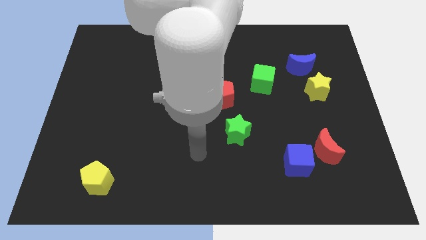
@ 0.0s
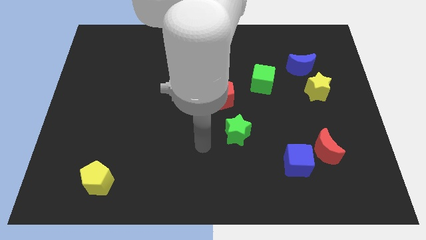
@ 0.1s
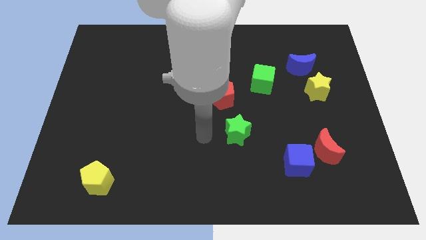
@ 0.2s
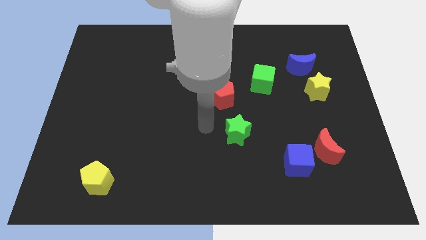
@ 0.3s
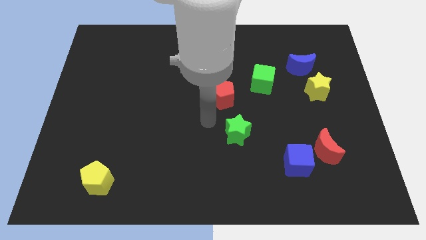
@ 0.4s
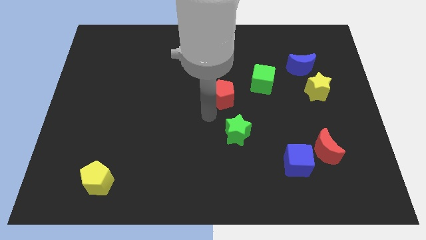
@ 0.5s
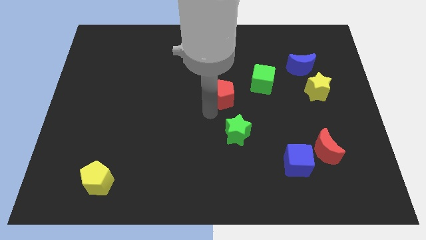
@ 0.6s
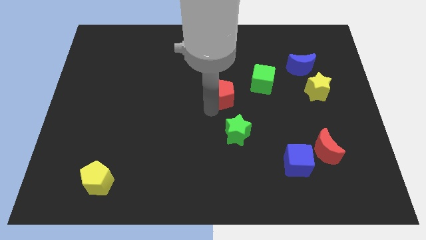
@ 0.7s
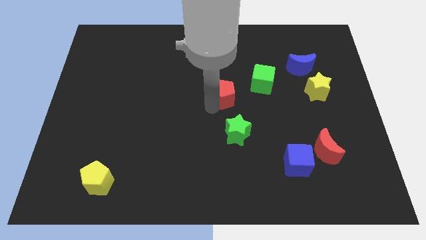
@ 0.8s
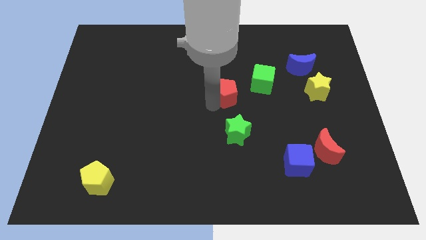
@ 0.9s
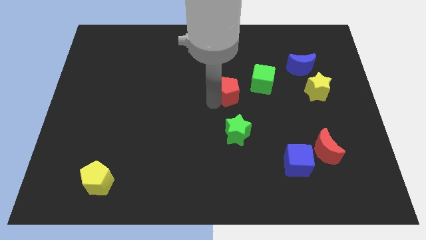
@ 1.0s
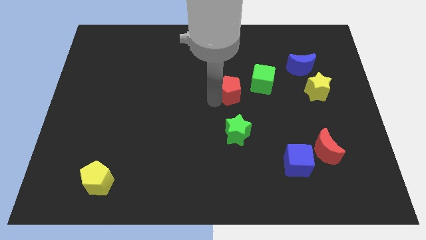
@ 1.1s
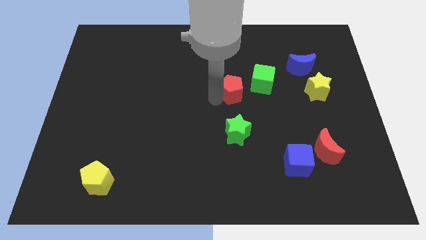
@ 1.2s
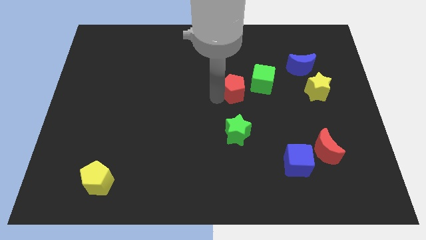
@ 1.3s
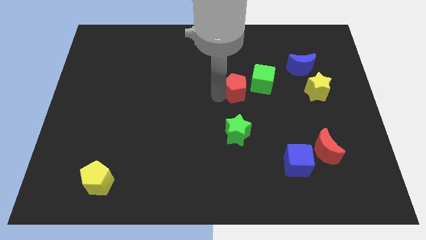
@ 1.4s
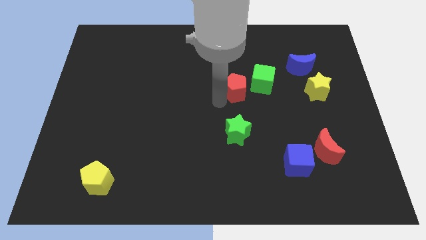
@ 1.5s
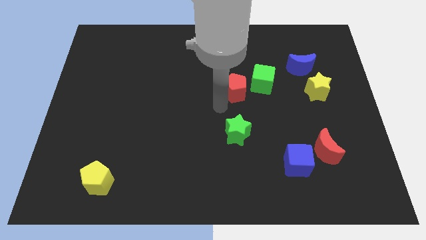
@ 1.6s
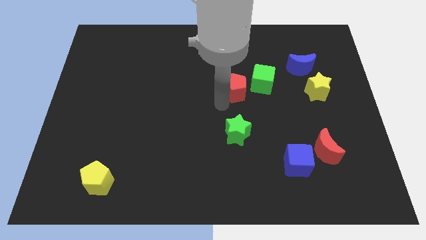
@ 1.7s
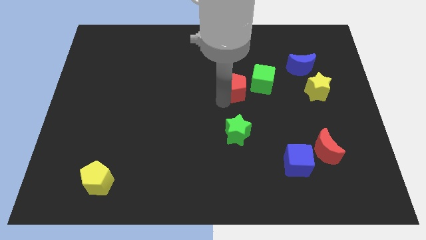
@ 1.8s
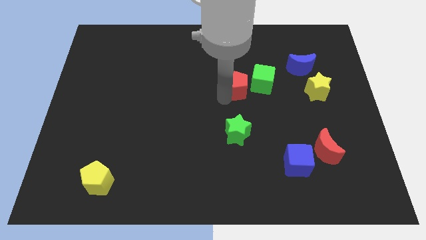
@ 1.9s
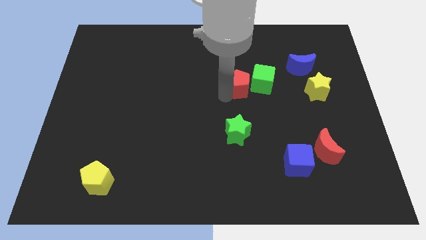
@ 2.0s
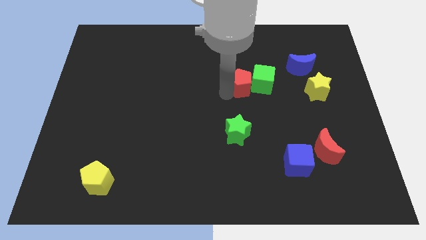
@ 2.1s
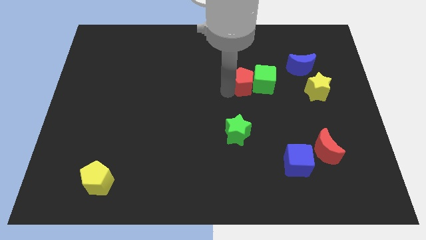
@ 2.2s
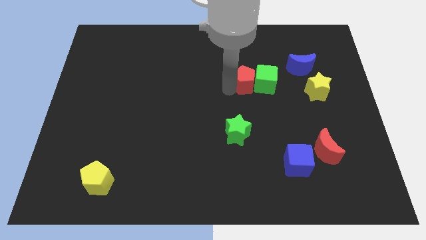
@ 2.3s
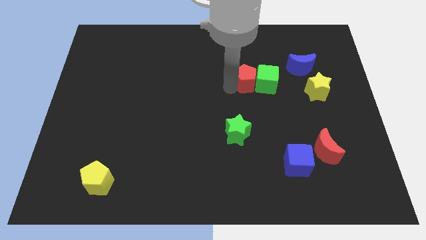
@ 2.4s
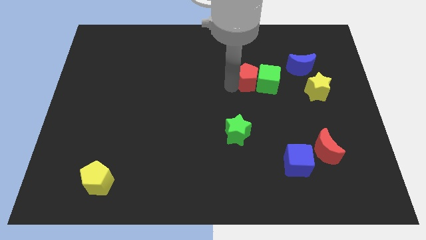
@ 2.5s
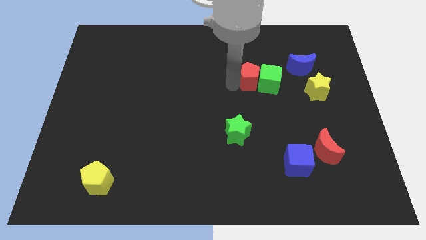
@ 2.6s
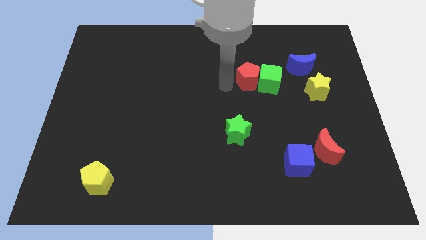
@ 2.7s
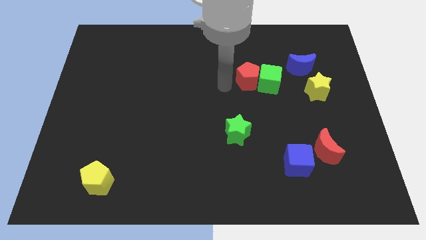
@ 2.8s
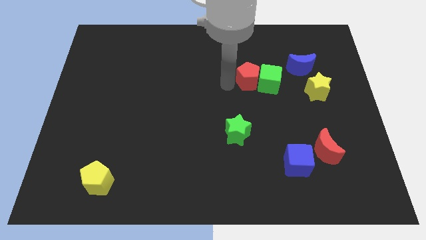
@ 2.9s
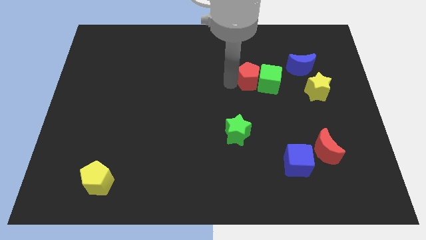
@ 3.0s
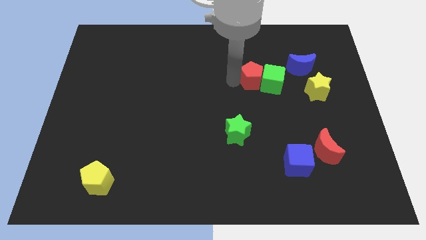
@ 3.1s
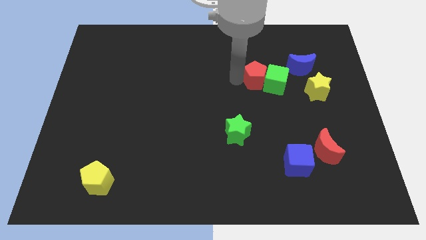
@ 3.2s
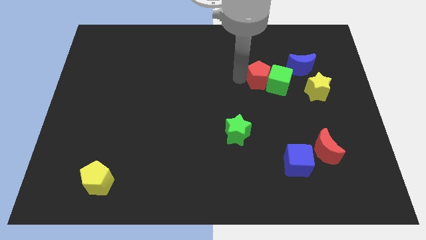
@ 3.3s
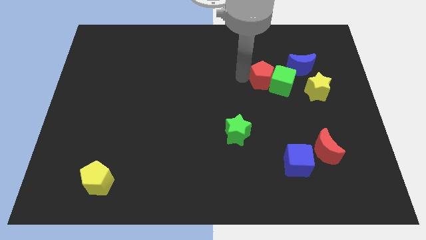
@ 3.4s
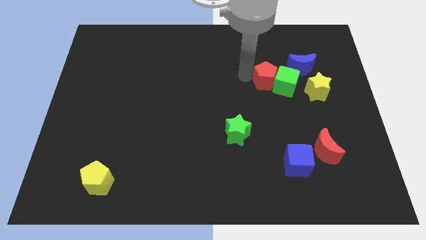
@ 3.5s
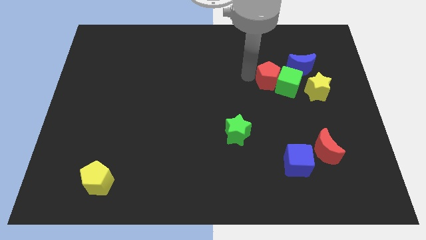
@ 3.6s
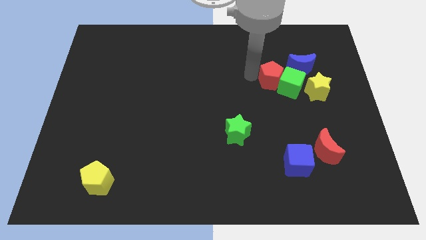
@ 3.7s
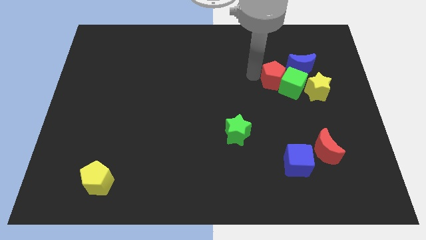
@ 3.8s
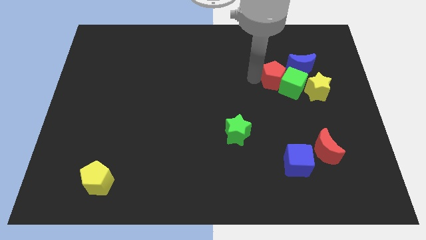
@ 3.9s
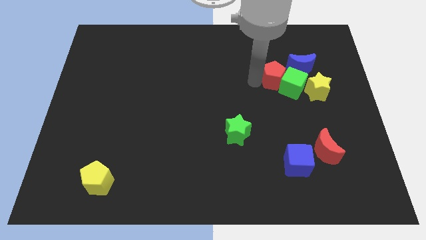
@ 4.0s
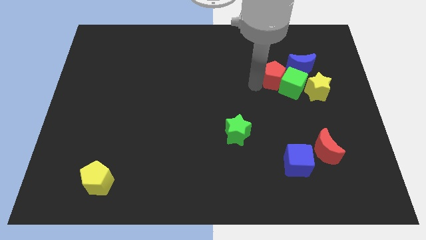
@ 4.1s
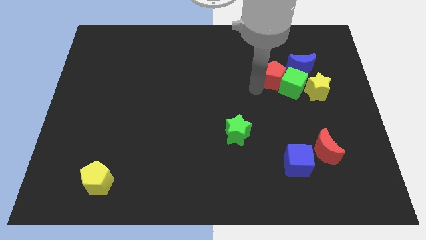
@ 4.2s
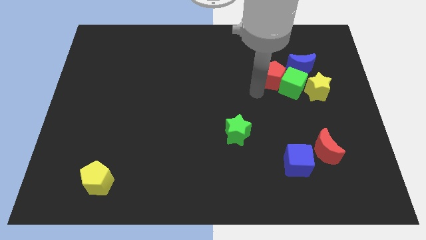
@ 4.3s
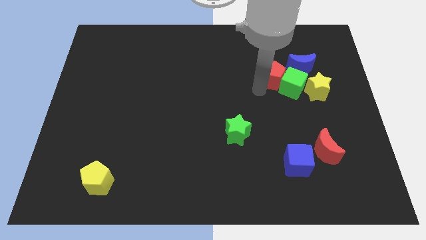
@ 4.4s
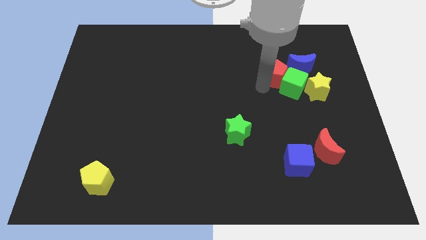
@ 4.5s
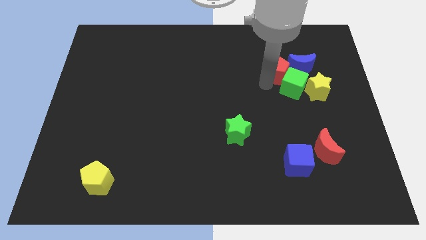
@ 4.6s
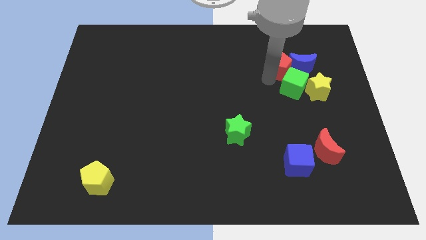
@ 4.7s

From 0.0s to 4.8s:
push the red pentagon towards the blue moon

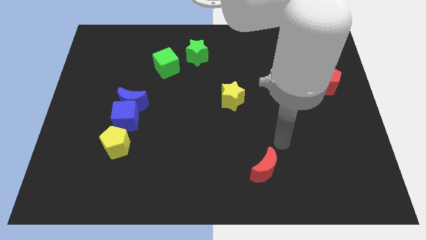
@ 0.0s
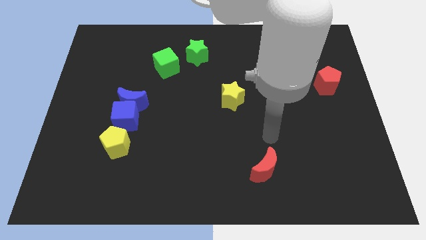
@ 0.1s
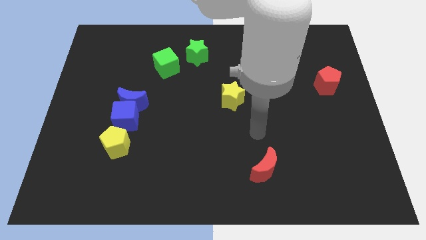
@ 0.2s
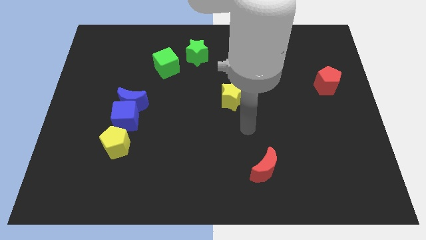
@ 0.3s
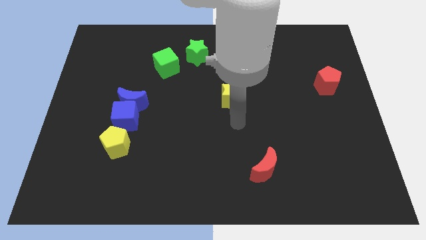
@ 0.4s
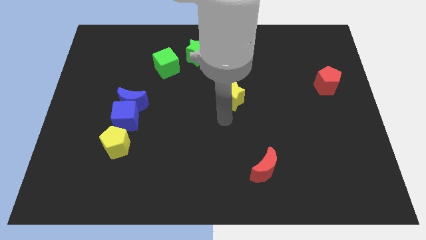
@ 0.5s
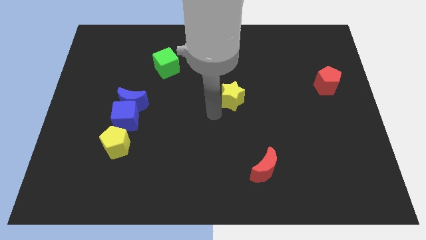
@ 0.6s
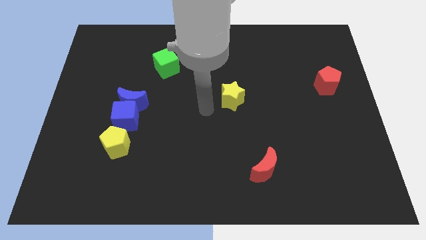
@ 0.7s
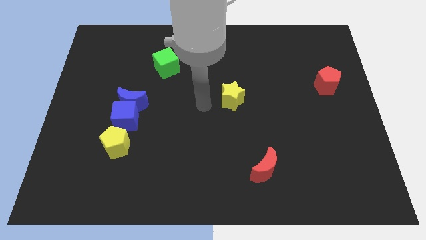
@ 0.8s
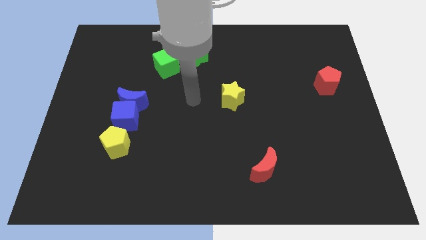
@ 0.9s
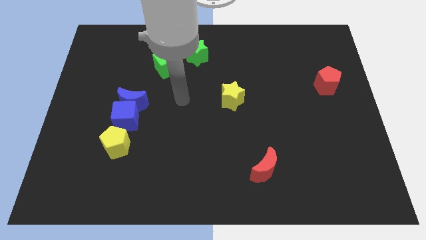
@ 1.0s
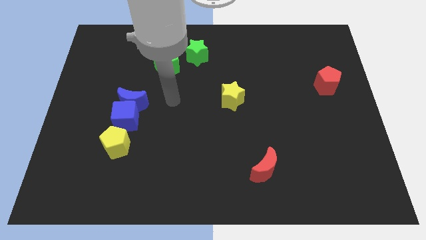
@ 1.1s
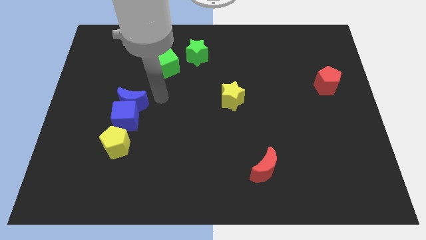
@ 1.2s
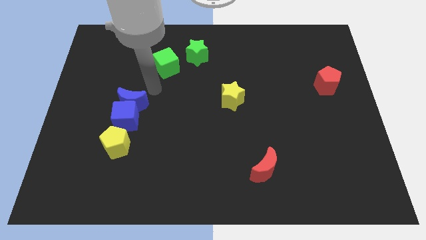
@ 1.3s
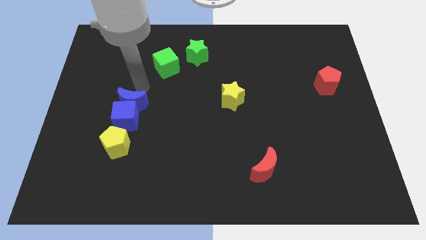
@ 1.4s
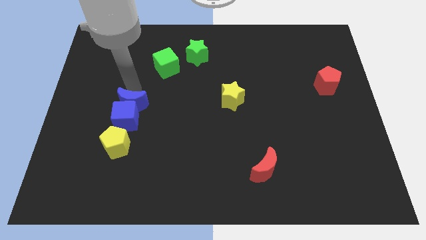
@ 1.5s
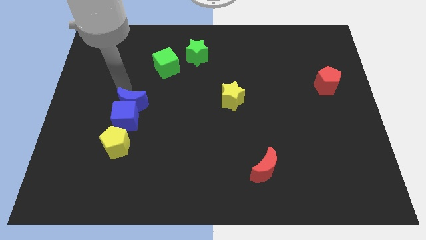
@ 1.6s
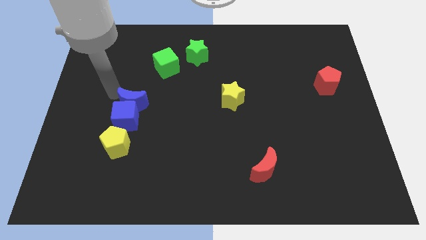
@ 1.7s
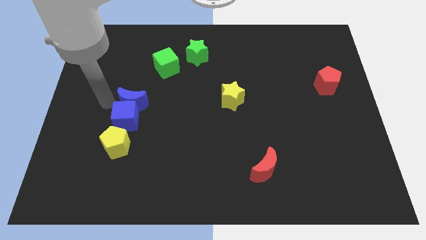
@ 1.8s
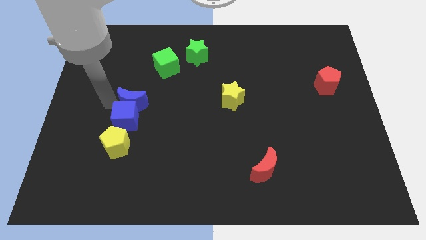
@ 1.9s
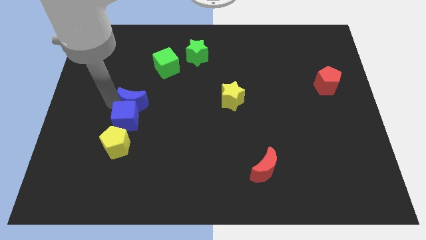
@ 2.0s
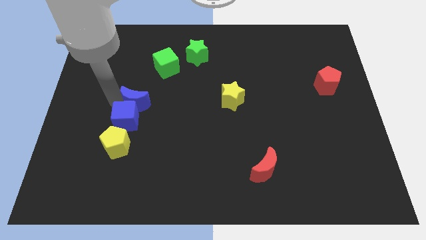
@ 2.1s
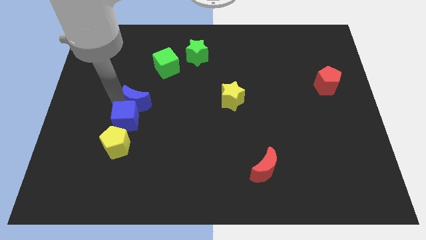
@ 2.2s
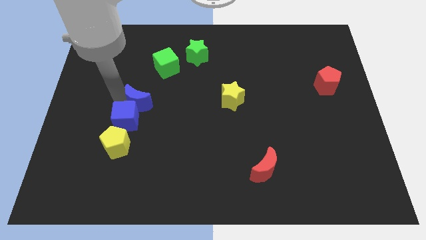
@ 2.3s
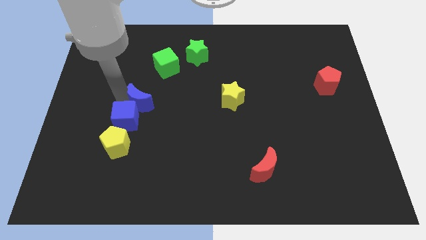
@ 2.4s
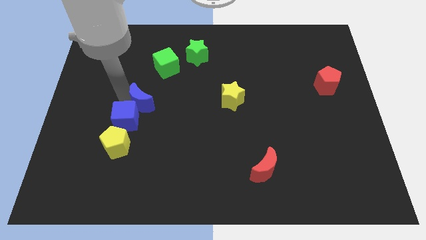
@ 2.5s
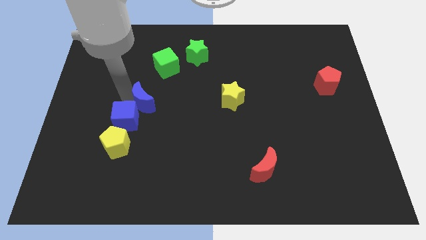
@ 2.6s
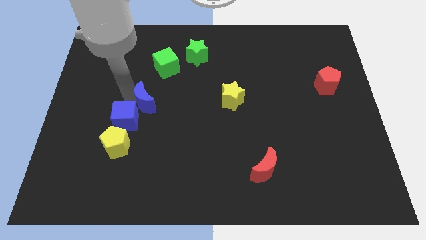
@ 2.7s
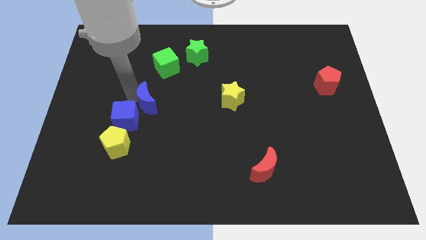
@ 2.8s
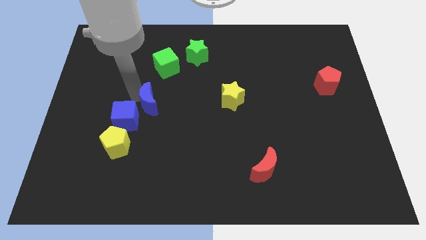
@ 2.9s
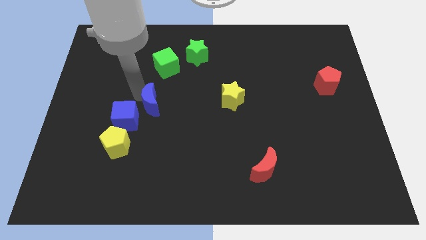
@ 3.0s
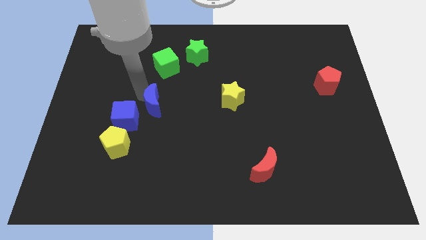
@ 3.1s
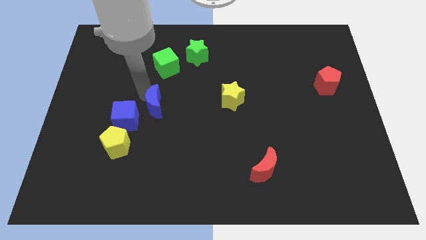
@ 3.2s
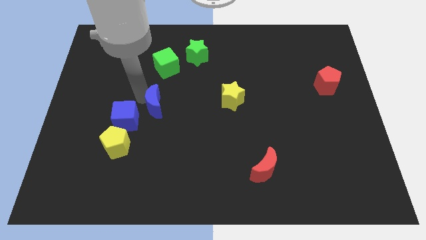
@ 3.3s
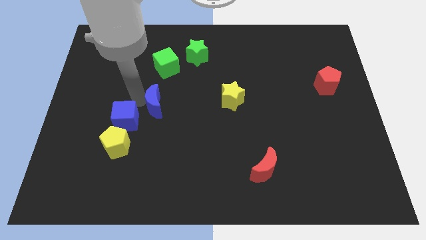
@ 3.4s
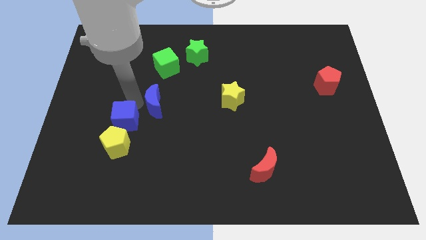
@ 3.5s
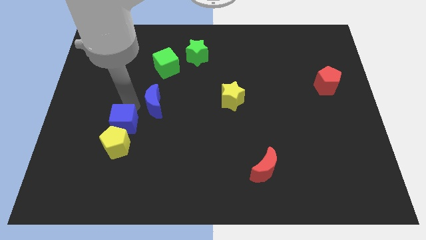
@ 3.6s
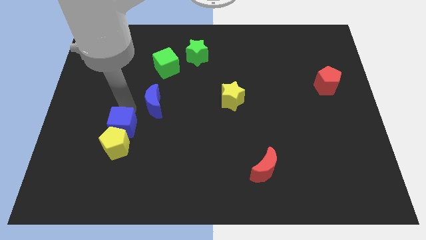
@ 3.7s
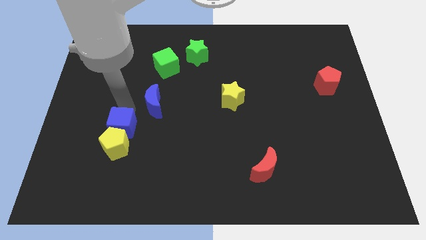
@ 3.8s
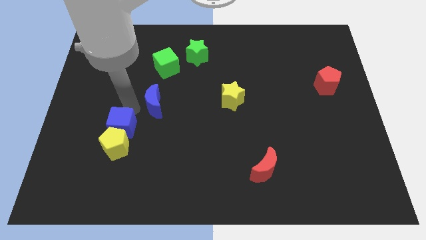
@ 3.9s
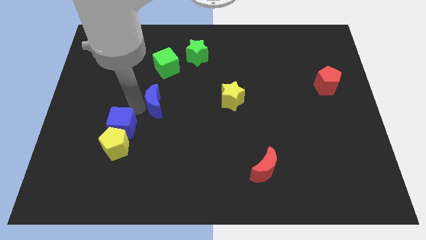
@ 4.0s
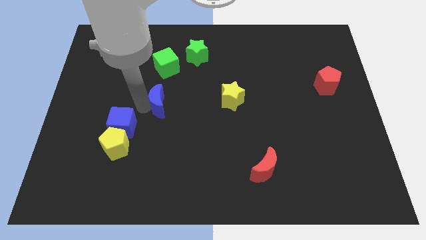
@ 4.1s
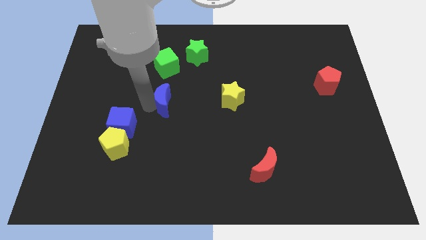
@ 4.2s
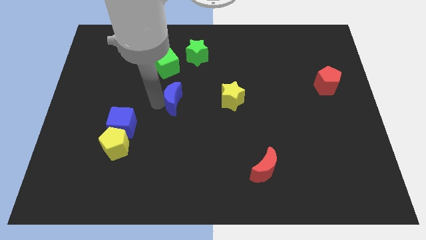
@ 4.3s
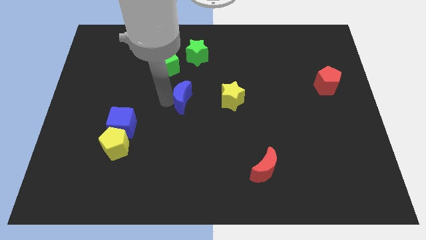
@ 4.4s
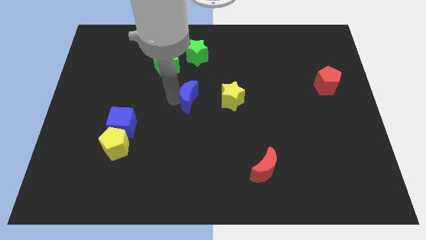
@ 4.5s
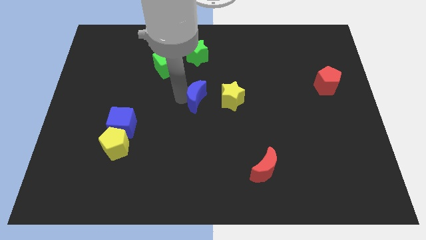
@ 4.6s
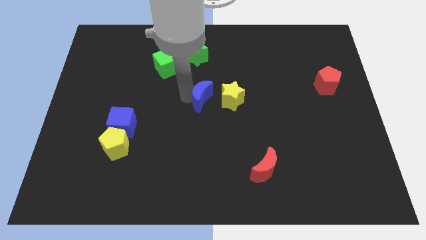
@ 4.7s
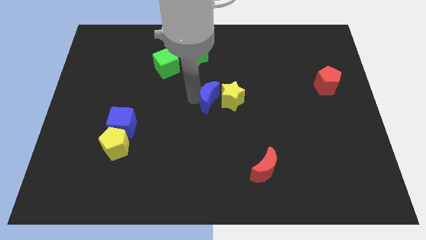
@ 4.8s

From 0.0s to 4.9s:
push the blue moon next to the yellow star
